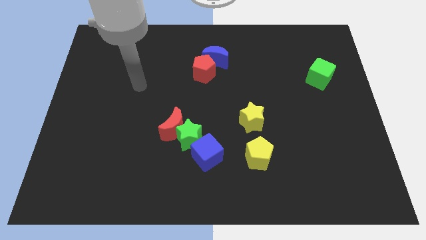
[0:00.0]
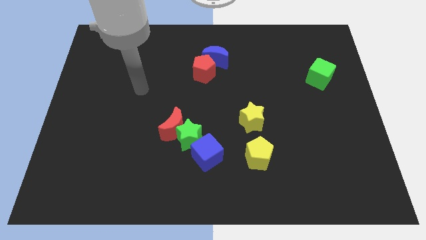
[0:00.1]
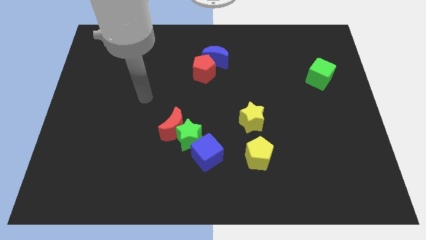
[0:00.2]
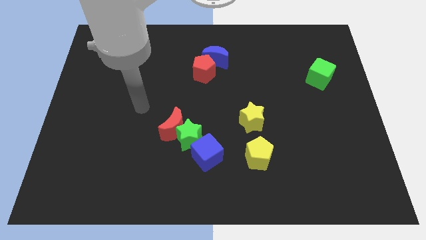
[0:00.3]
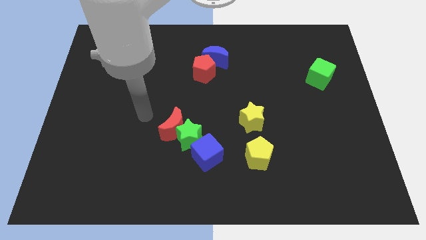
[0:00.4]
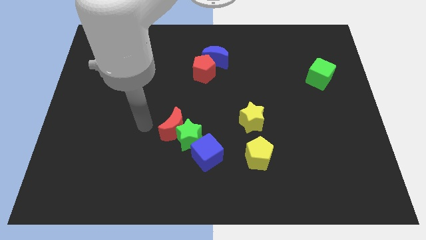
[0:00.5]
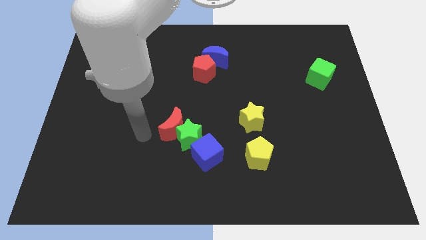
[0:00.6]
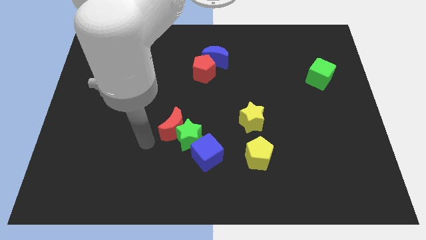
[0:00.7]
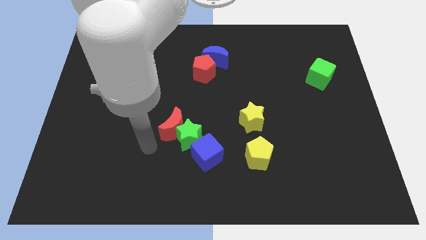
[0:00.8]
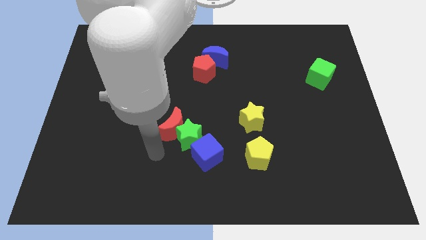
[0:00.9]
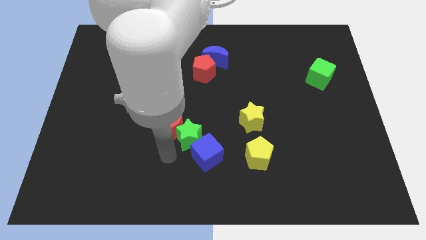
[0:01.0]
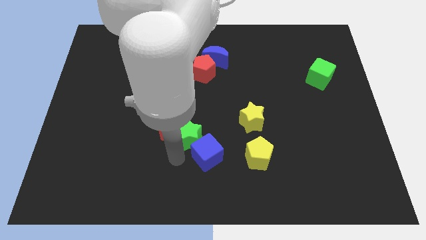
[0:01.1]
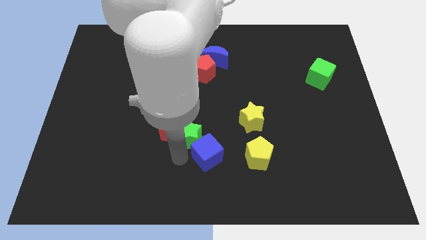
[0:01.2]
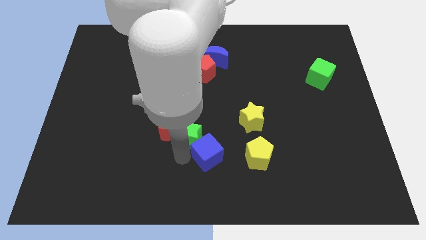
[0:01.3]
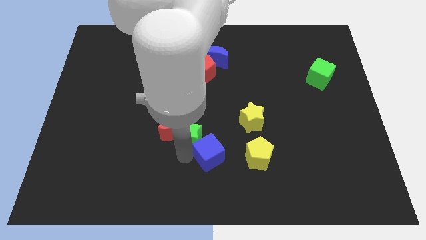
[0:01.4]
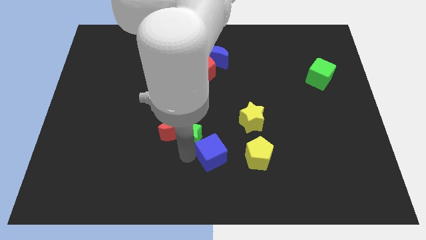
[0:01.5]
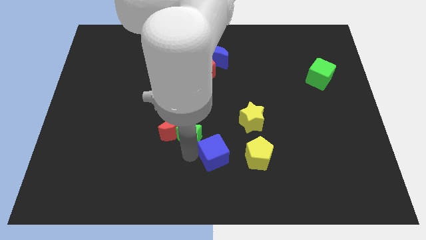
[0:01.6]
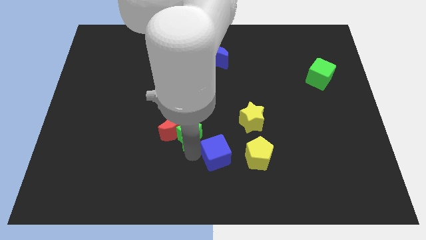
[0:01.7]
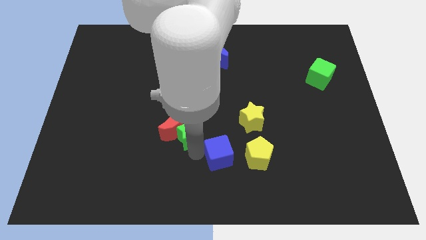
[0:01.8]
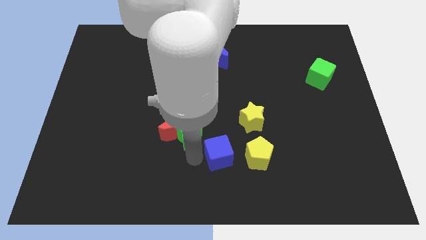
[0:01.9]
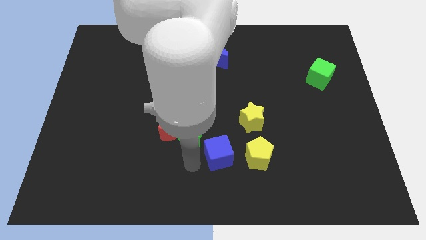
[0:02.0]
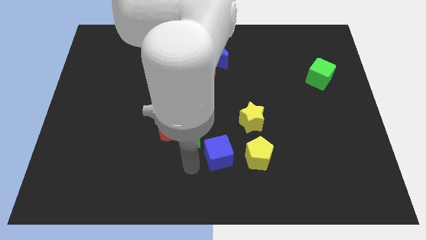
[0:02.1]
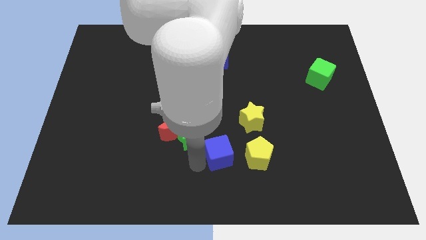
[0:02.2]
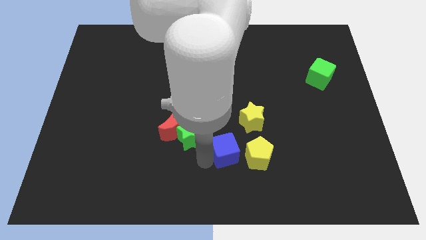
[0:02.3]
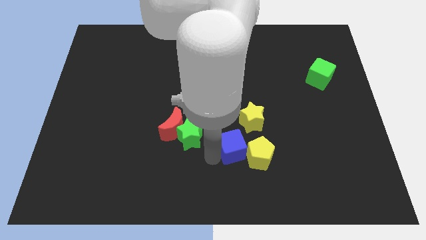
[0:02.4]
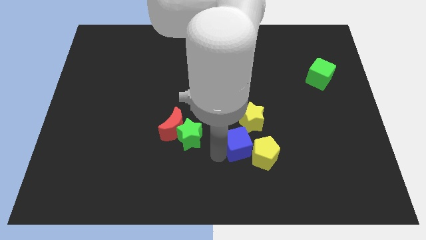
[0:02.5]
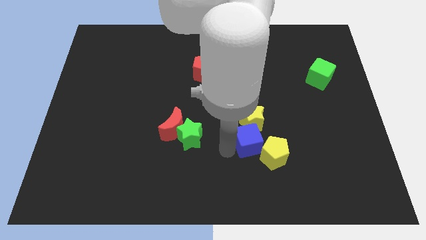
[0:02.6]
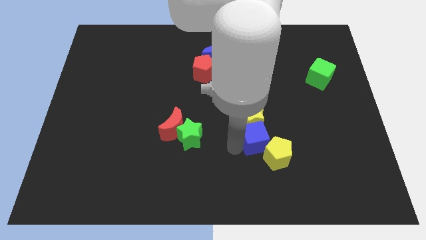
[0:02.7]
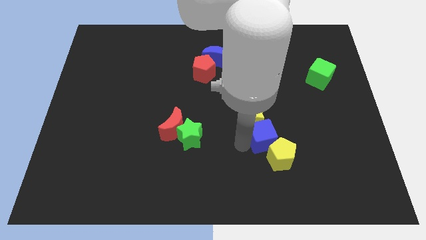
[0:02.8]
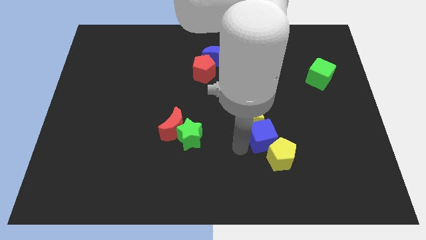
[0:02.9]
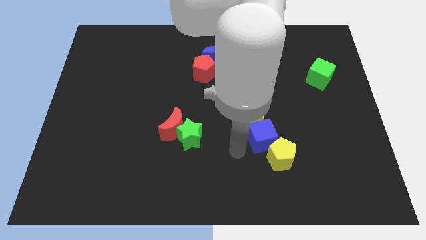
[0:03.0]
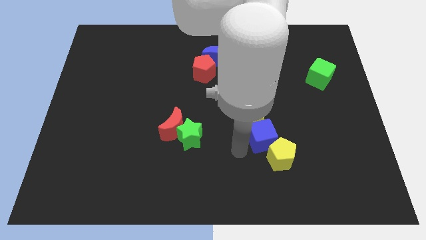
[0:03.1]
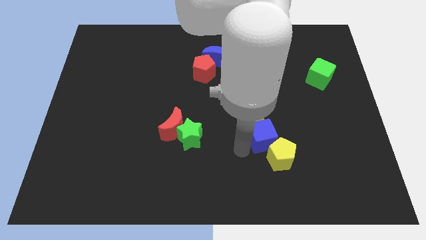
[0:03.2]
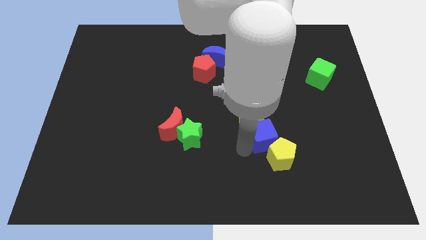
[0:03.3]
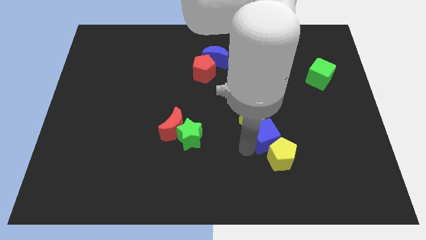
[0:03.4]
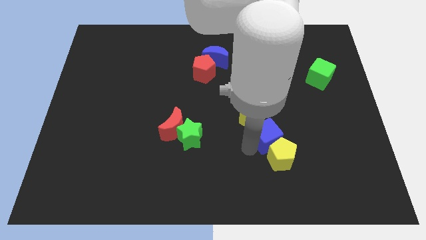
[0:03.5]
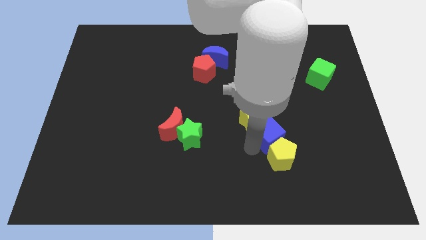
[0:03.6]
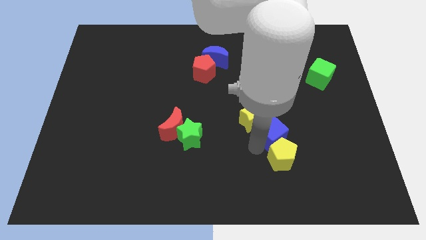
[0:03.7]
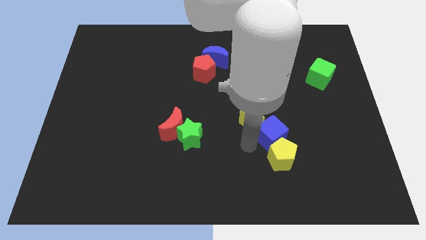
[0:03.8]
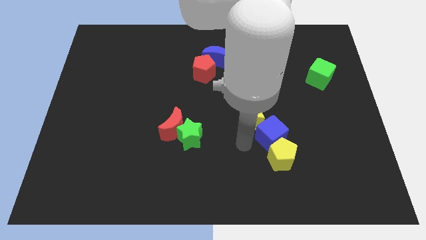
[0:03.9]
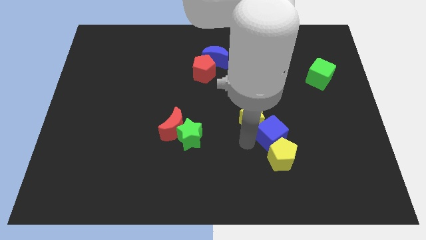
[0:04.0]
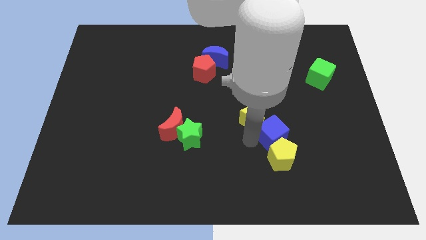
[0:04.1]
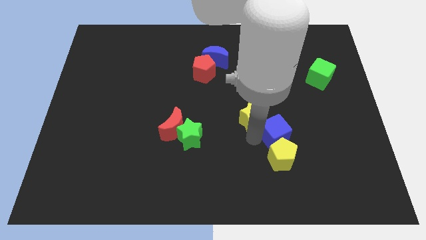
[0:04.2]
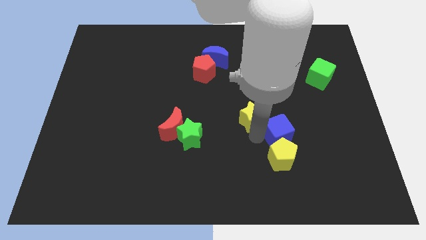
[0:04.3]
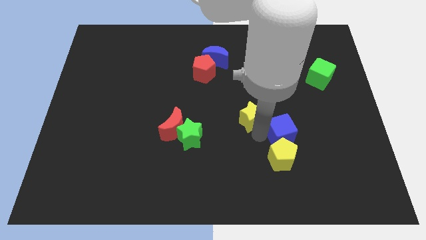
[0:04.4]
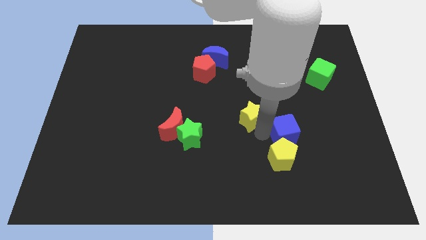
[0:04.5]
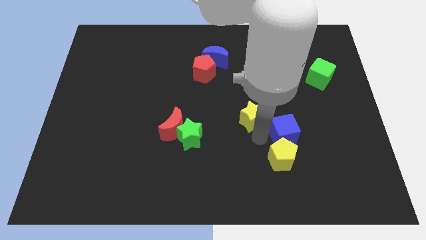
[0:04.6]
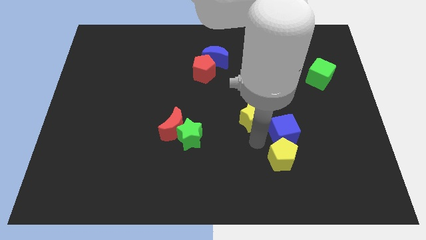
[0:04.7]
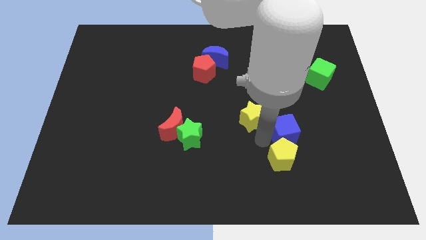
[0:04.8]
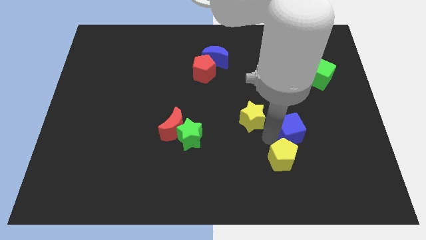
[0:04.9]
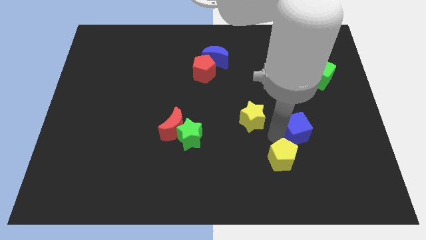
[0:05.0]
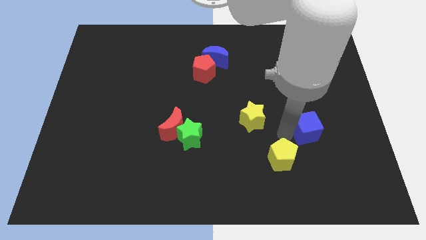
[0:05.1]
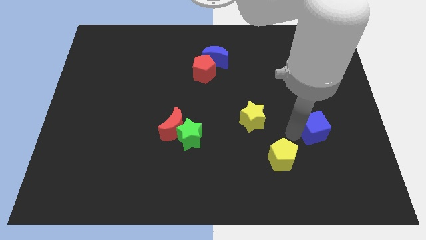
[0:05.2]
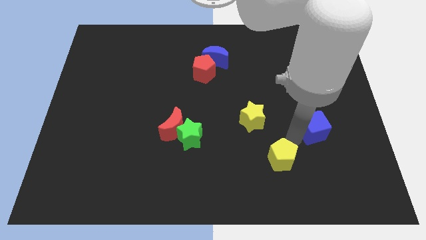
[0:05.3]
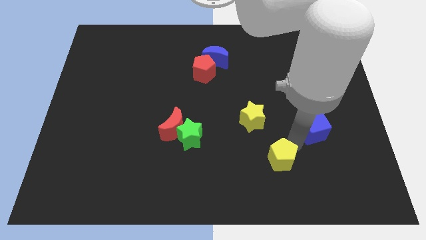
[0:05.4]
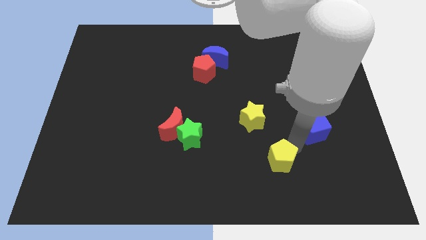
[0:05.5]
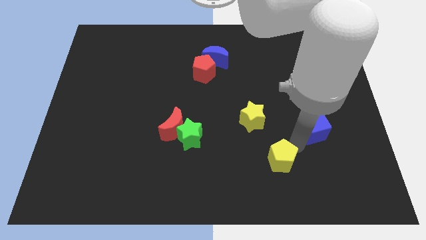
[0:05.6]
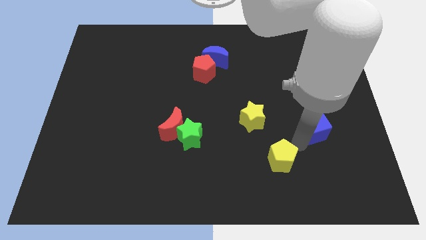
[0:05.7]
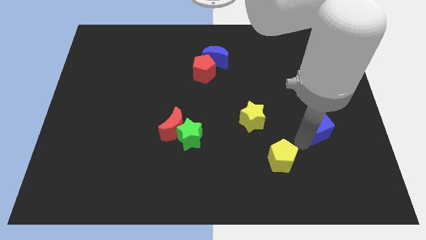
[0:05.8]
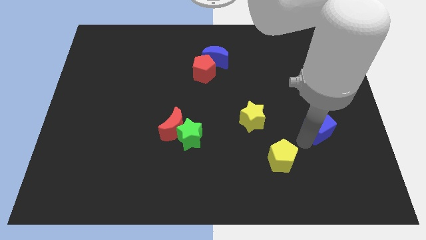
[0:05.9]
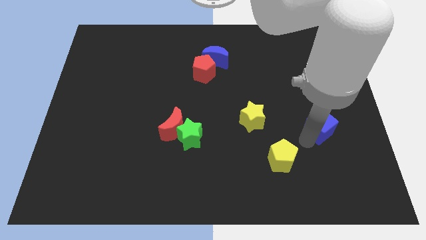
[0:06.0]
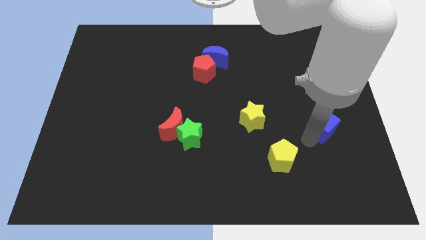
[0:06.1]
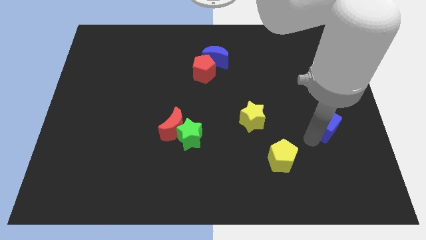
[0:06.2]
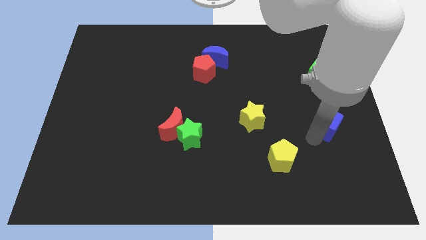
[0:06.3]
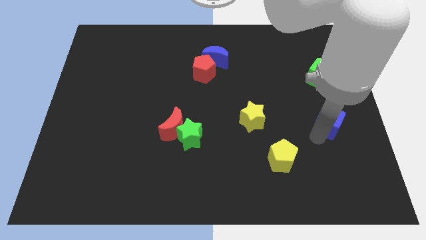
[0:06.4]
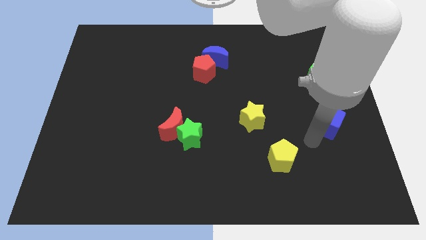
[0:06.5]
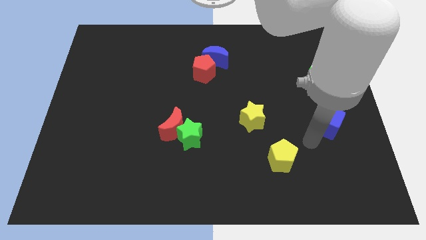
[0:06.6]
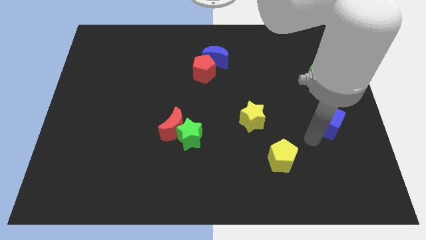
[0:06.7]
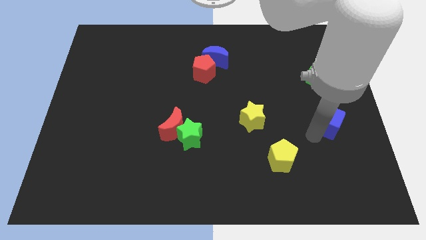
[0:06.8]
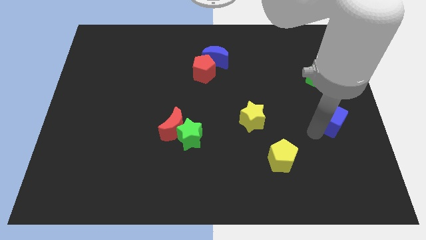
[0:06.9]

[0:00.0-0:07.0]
move the blue cube to the right side

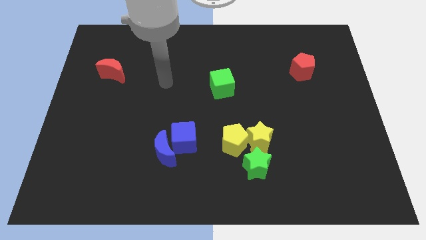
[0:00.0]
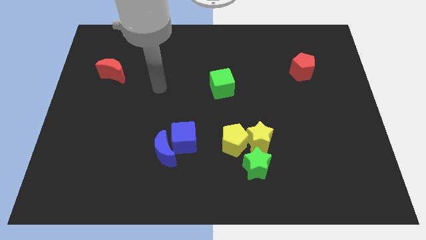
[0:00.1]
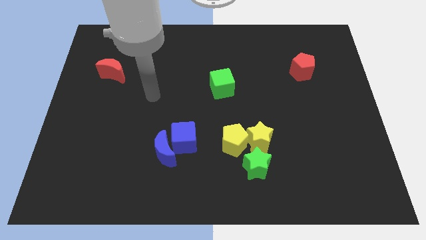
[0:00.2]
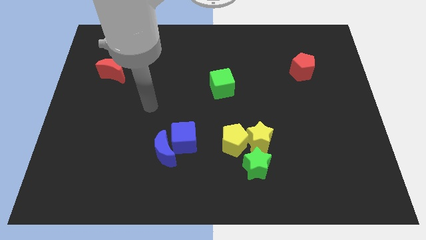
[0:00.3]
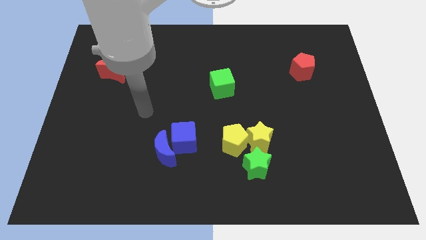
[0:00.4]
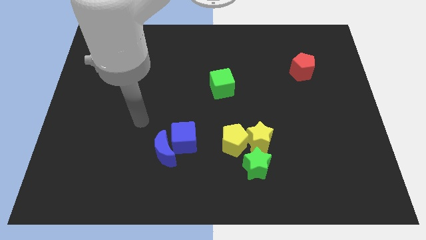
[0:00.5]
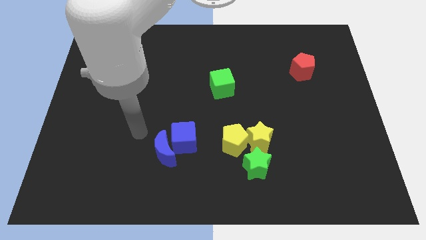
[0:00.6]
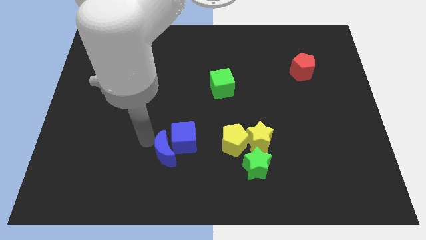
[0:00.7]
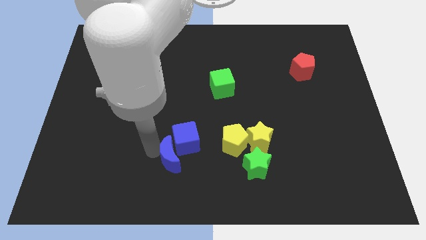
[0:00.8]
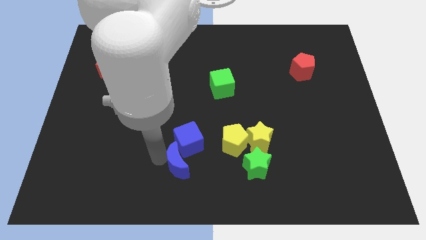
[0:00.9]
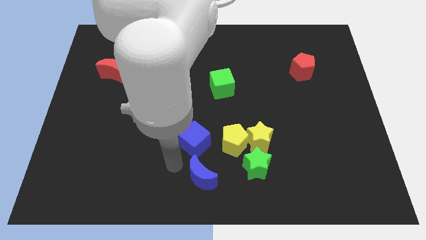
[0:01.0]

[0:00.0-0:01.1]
push the blue cube to the middle of the board
